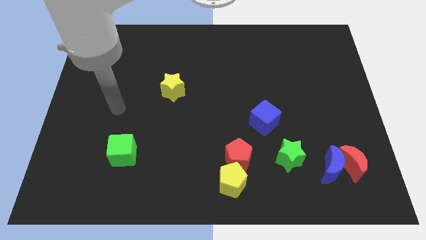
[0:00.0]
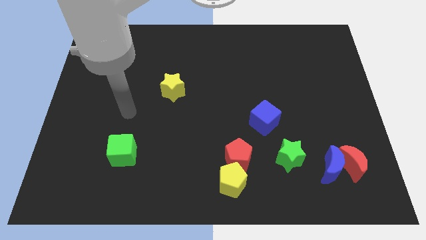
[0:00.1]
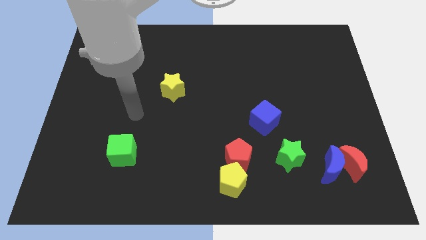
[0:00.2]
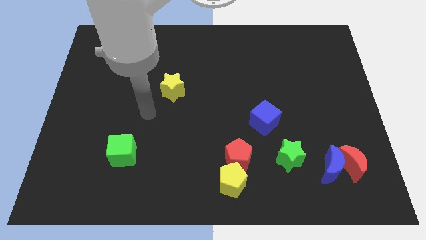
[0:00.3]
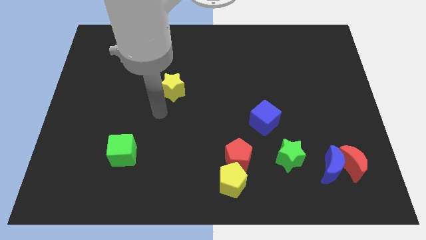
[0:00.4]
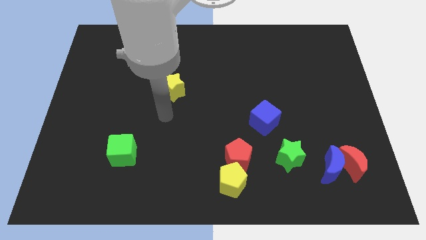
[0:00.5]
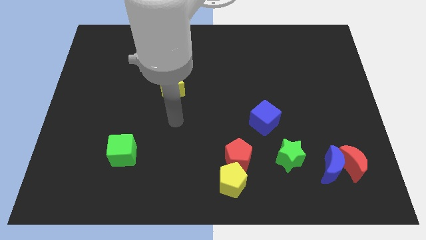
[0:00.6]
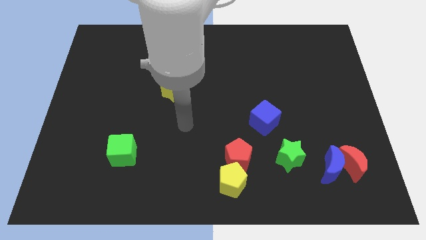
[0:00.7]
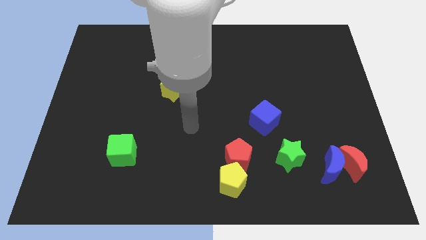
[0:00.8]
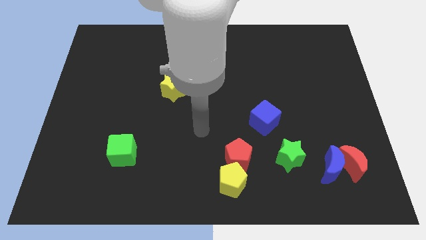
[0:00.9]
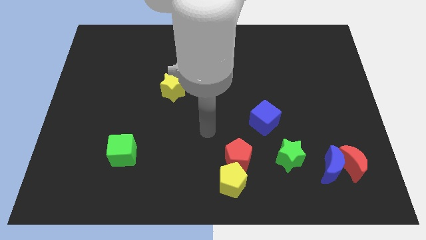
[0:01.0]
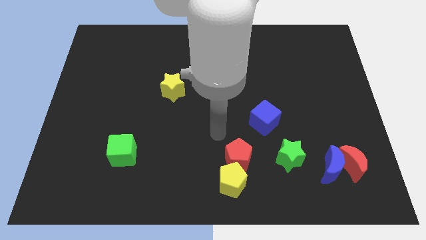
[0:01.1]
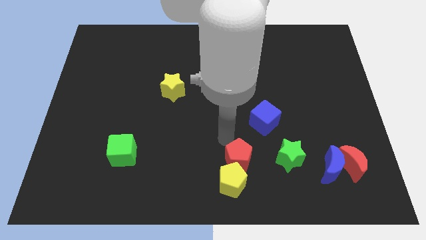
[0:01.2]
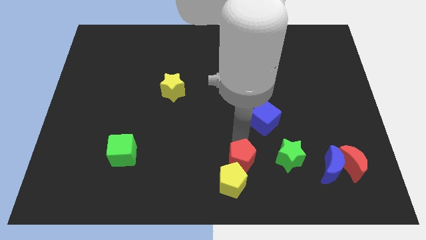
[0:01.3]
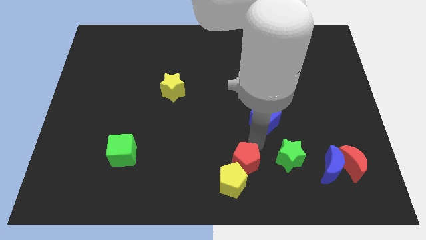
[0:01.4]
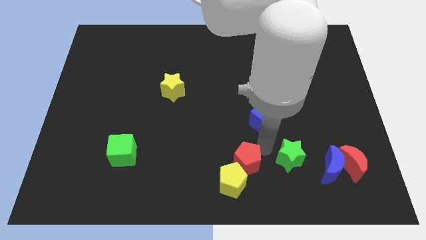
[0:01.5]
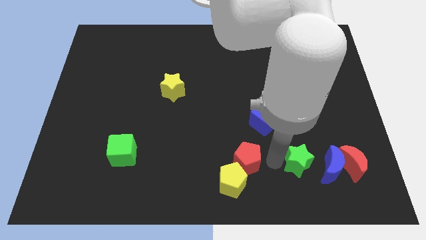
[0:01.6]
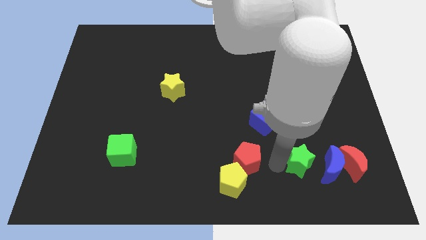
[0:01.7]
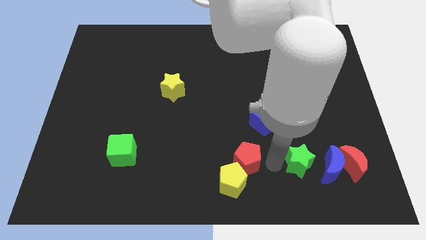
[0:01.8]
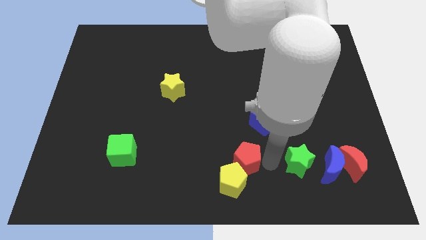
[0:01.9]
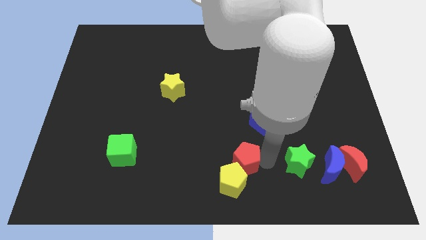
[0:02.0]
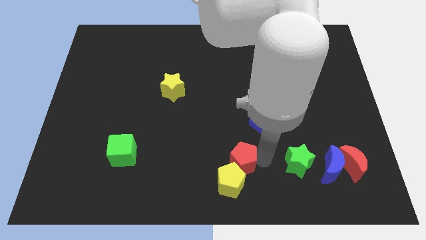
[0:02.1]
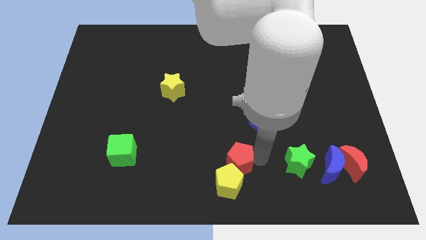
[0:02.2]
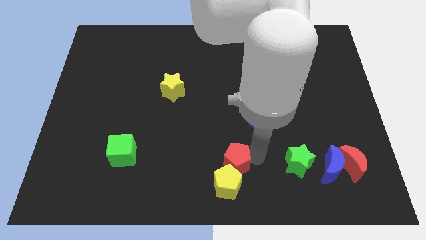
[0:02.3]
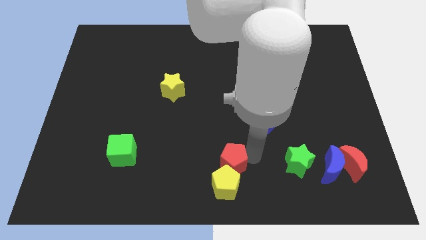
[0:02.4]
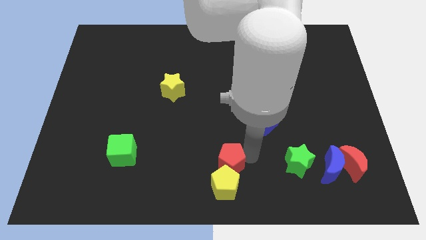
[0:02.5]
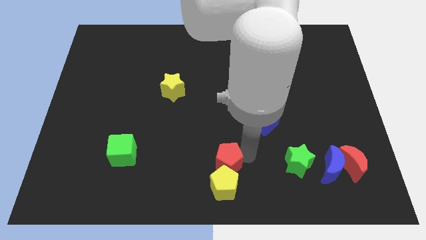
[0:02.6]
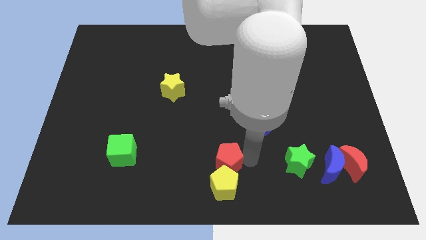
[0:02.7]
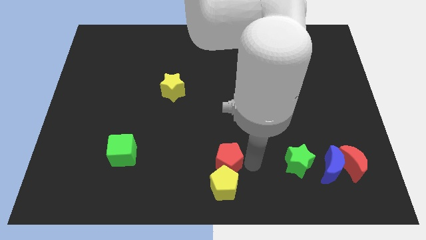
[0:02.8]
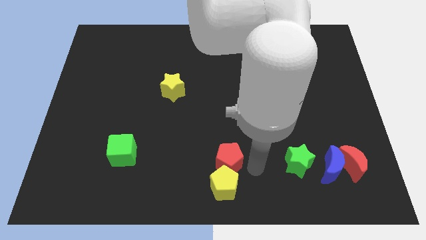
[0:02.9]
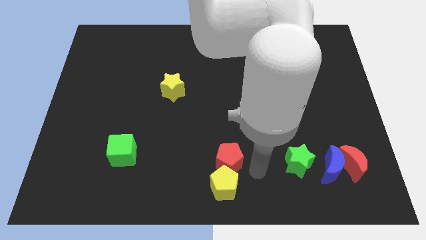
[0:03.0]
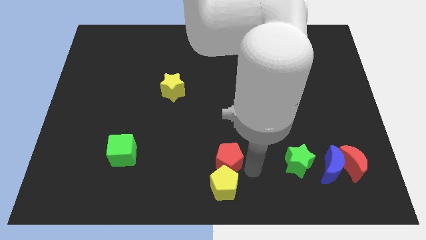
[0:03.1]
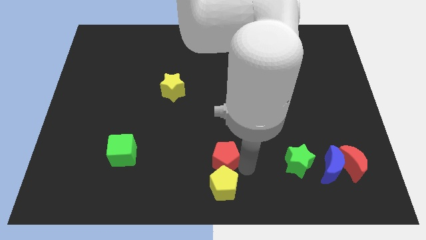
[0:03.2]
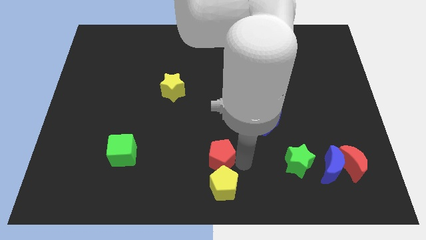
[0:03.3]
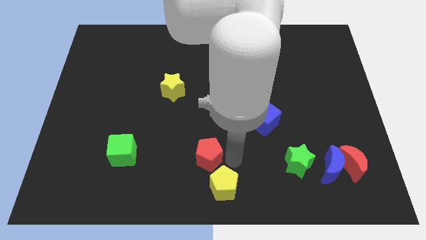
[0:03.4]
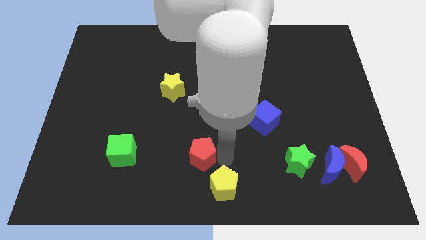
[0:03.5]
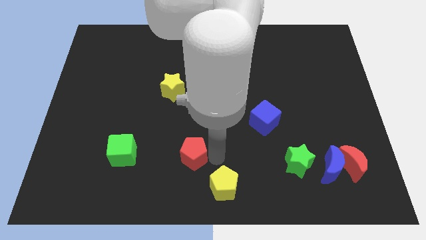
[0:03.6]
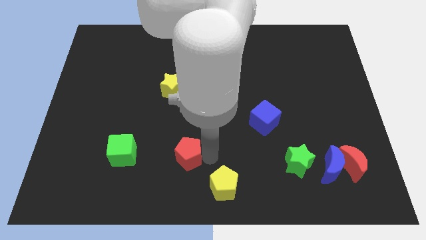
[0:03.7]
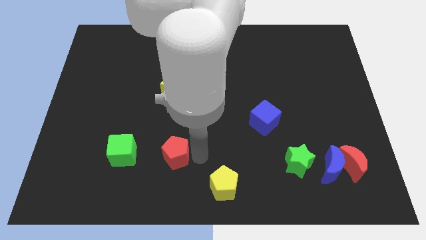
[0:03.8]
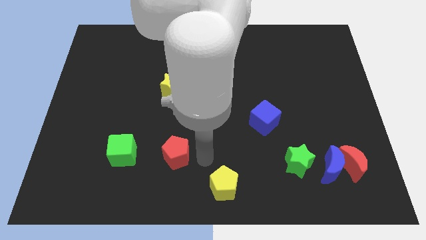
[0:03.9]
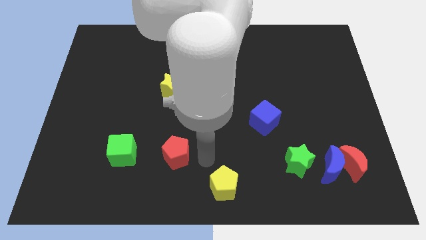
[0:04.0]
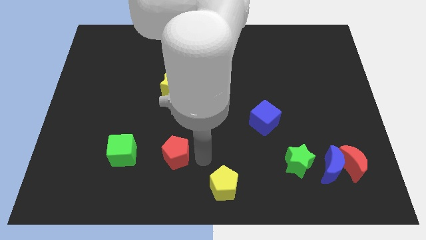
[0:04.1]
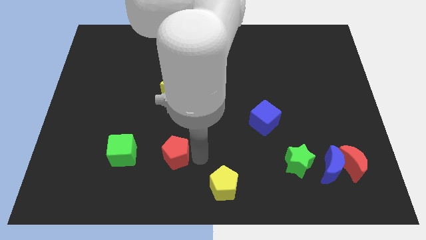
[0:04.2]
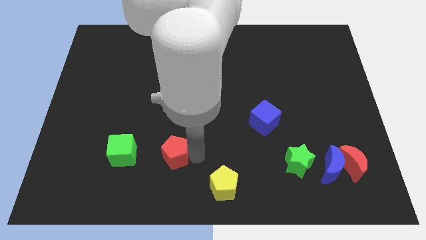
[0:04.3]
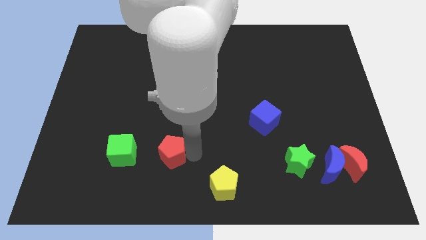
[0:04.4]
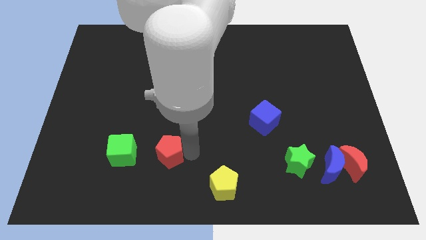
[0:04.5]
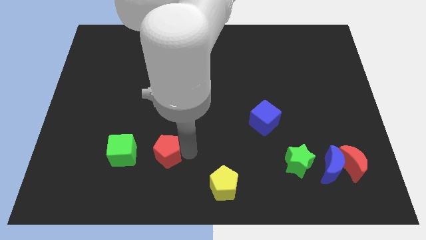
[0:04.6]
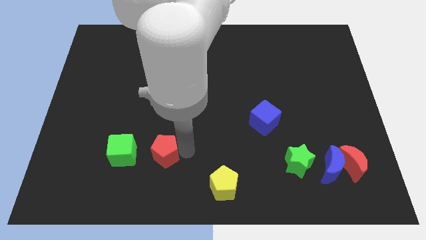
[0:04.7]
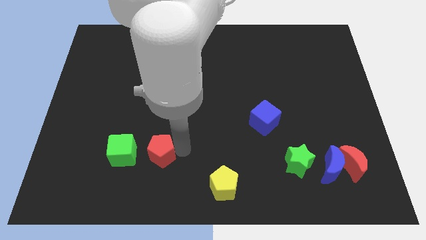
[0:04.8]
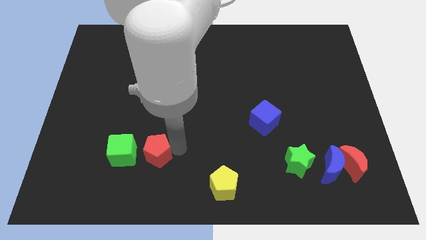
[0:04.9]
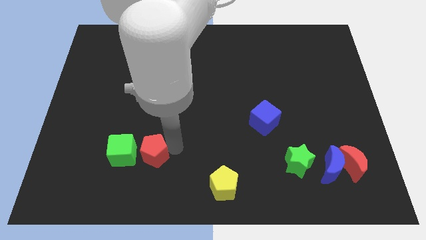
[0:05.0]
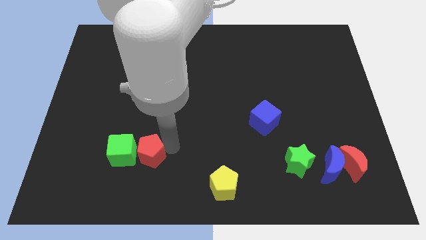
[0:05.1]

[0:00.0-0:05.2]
slide the red pentagon towards the green cube

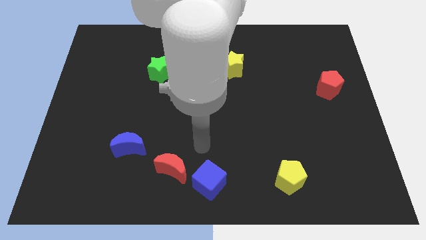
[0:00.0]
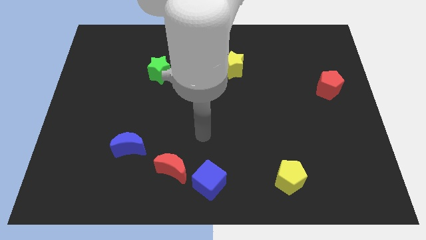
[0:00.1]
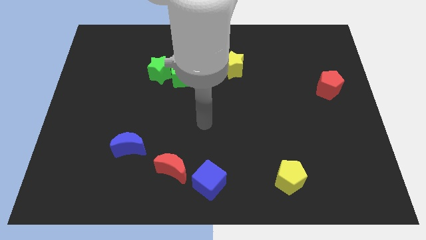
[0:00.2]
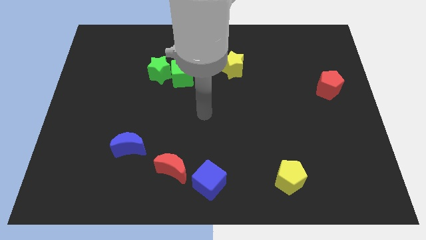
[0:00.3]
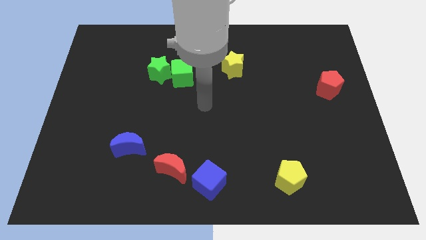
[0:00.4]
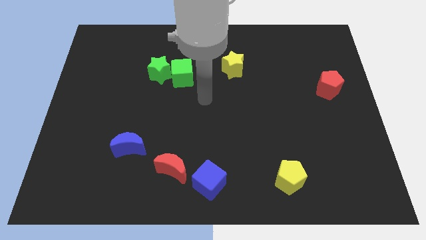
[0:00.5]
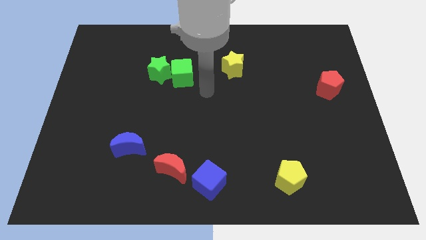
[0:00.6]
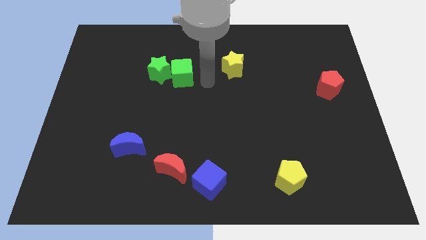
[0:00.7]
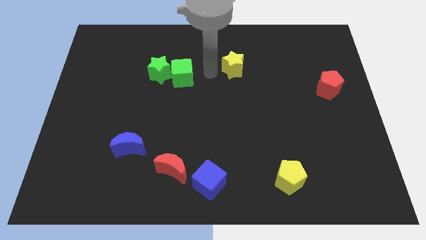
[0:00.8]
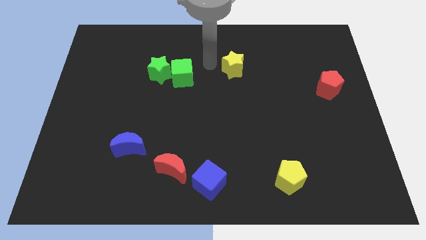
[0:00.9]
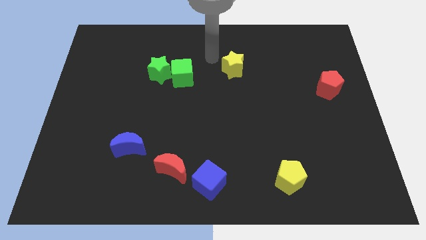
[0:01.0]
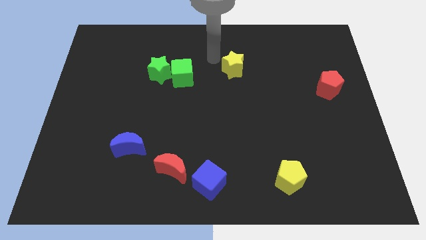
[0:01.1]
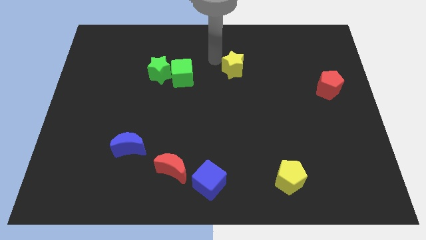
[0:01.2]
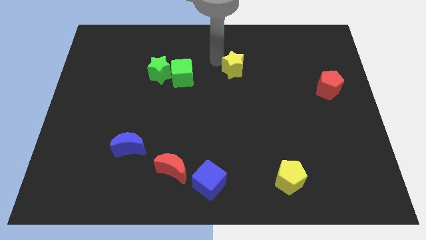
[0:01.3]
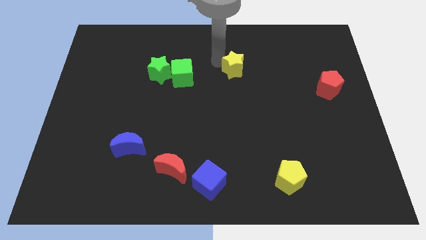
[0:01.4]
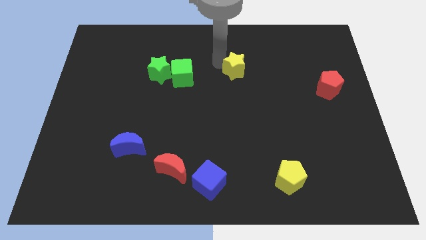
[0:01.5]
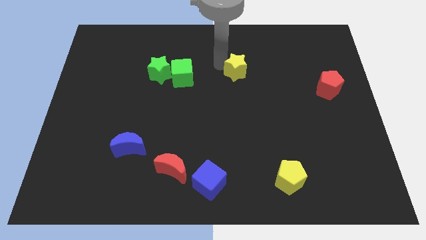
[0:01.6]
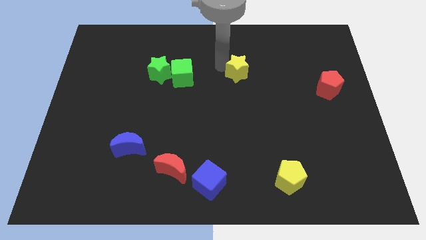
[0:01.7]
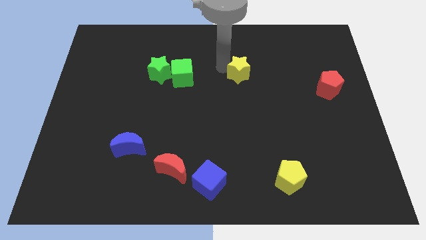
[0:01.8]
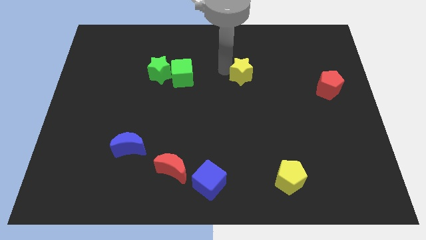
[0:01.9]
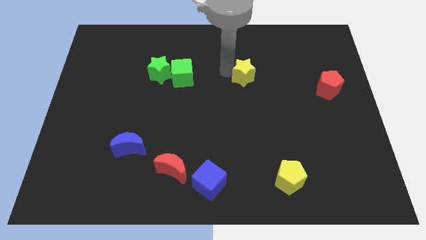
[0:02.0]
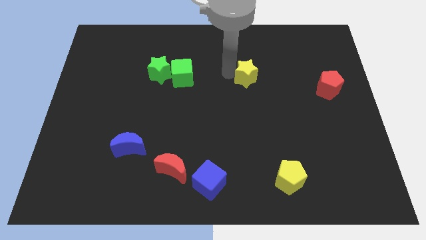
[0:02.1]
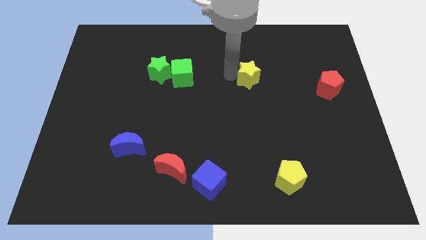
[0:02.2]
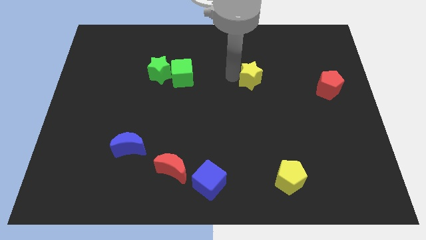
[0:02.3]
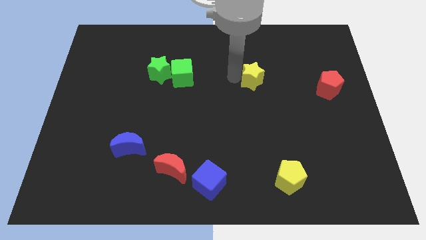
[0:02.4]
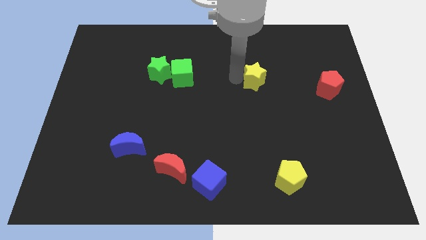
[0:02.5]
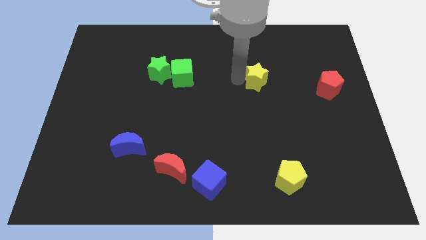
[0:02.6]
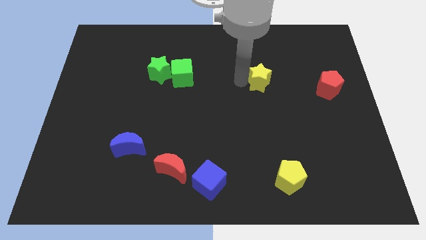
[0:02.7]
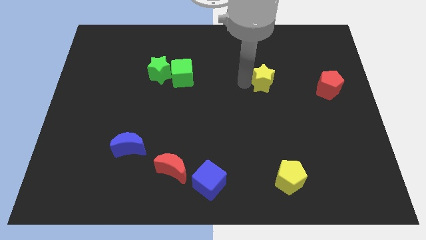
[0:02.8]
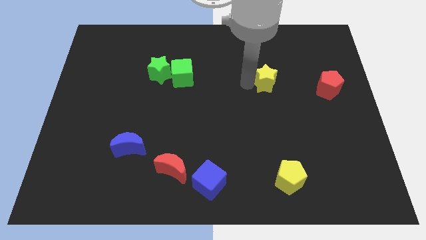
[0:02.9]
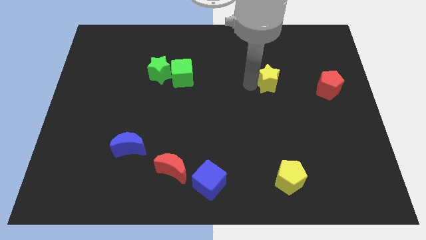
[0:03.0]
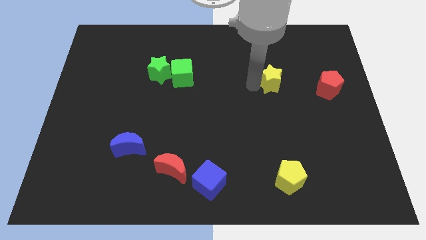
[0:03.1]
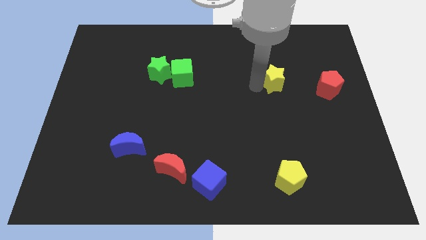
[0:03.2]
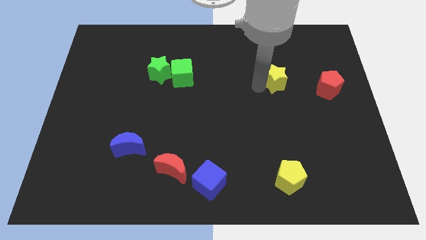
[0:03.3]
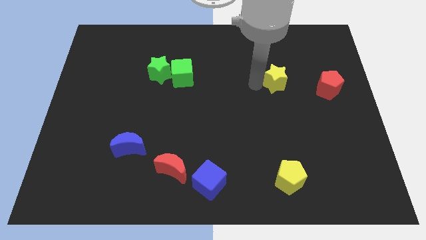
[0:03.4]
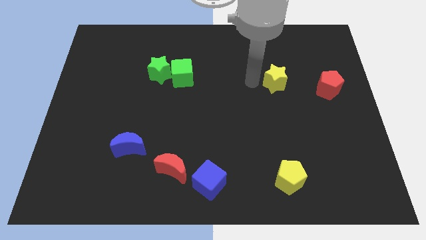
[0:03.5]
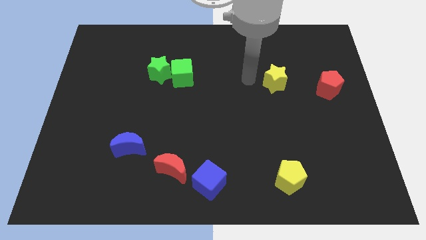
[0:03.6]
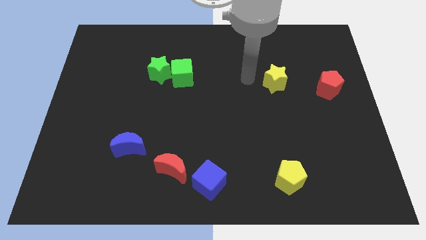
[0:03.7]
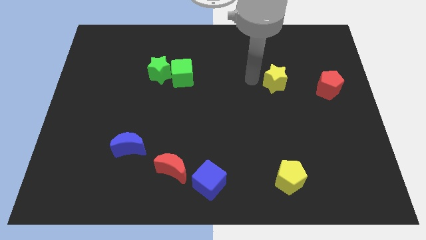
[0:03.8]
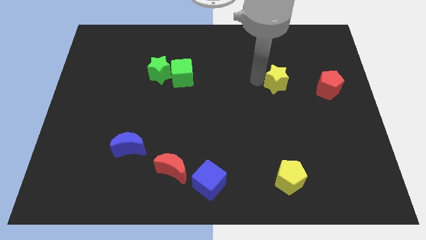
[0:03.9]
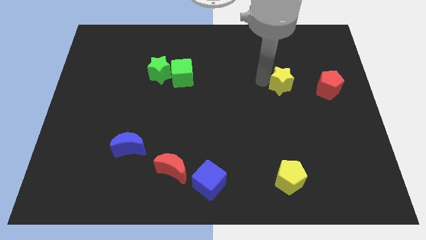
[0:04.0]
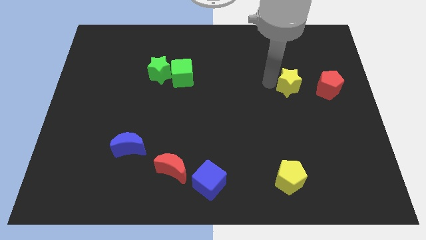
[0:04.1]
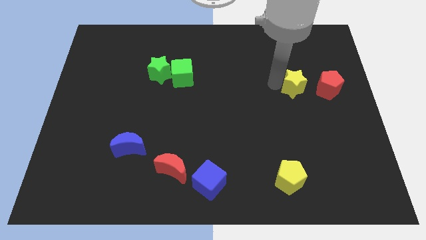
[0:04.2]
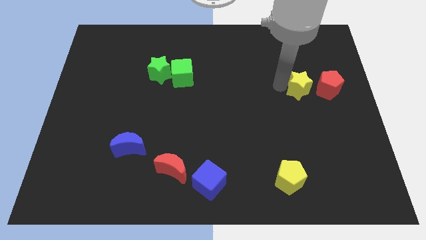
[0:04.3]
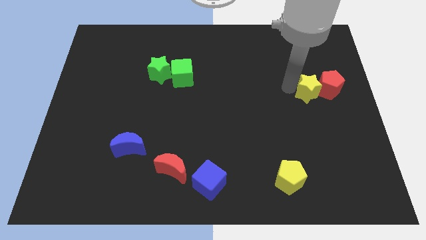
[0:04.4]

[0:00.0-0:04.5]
move the yellow star to the red pentagon
